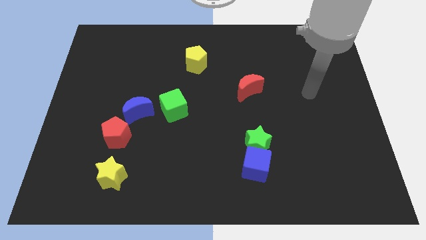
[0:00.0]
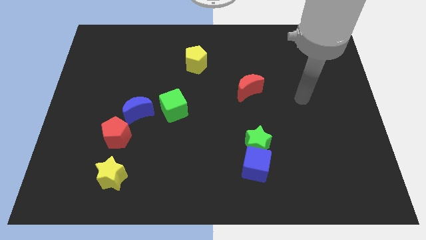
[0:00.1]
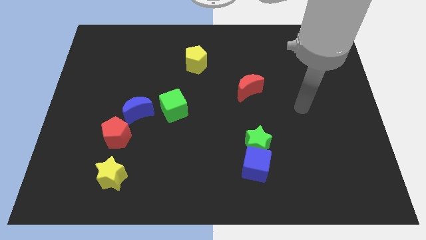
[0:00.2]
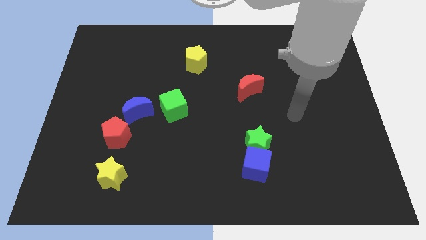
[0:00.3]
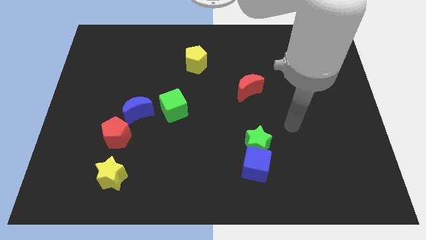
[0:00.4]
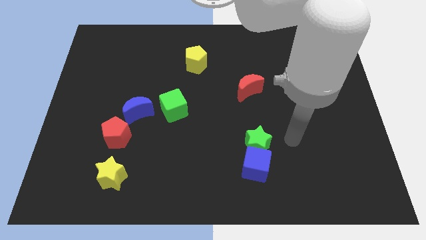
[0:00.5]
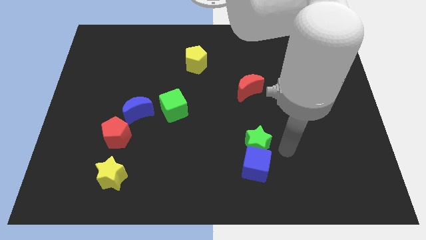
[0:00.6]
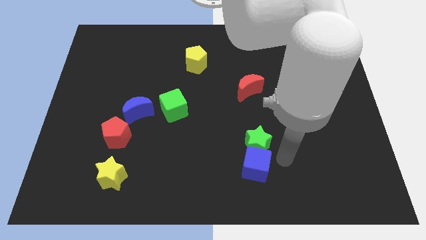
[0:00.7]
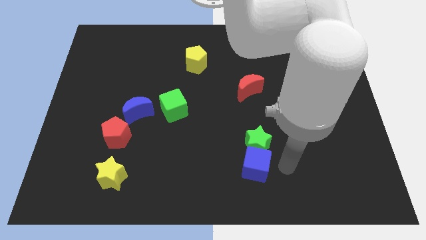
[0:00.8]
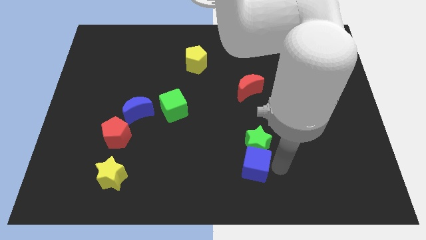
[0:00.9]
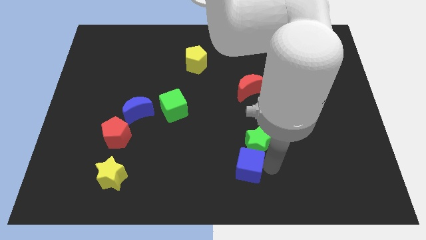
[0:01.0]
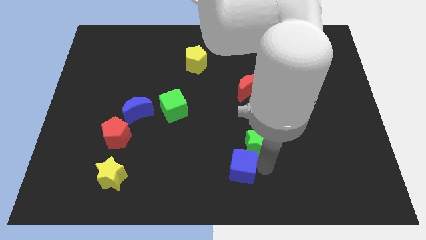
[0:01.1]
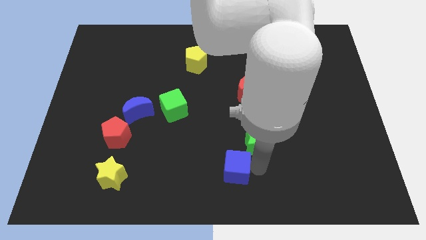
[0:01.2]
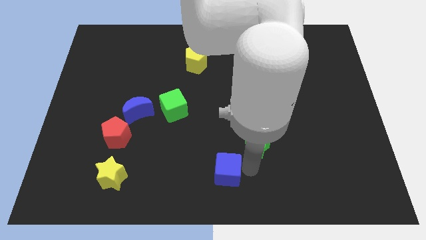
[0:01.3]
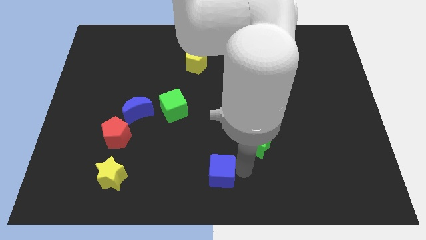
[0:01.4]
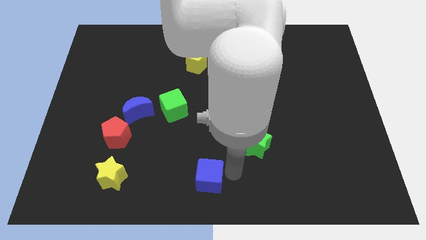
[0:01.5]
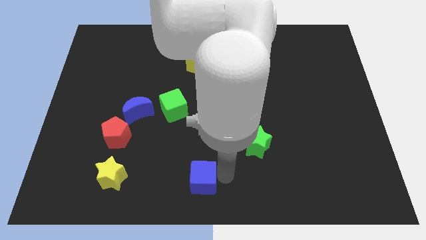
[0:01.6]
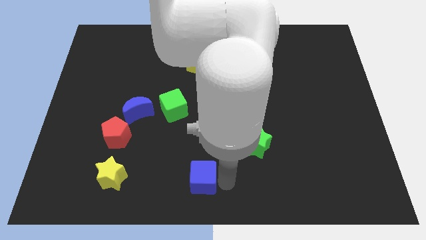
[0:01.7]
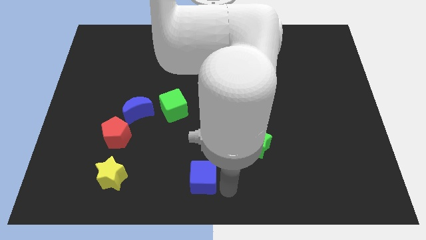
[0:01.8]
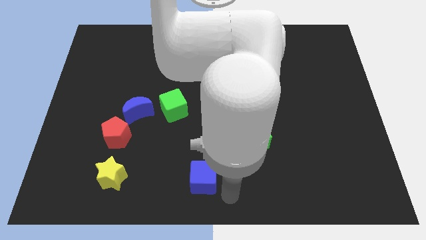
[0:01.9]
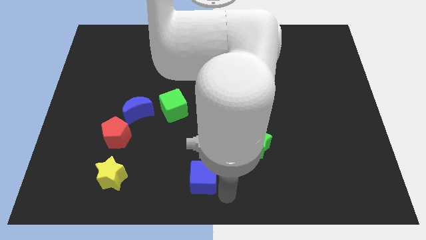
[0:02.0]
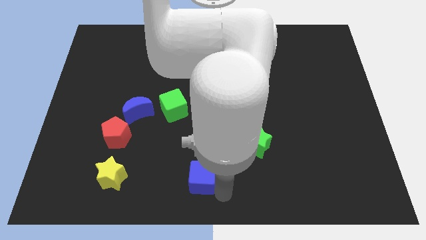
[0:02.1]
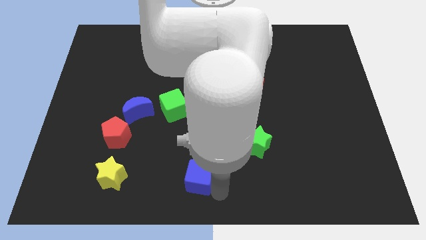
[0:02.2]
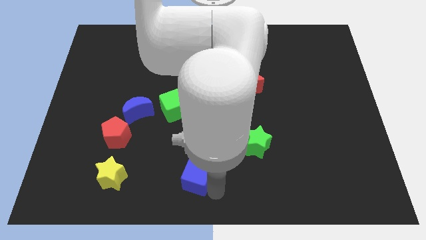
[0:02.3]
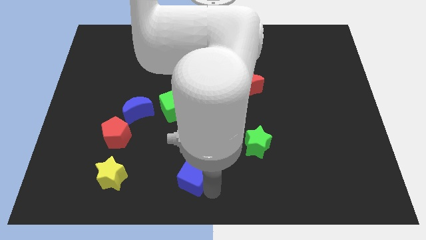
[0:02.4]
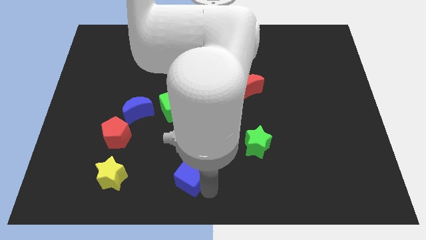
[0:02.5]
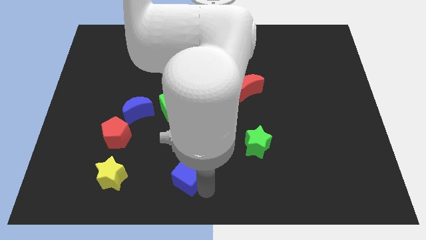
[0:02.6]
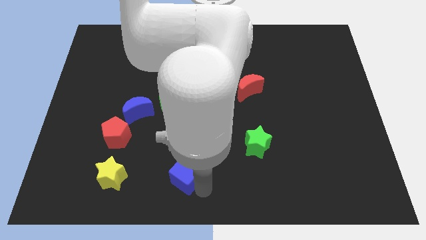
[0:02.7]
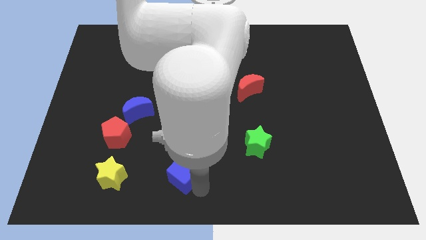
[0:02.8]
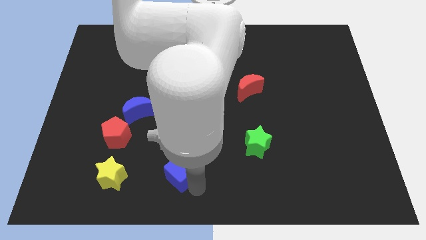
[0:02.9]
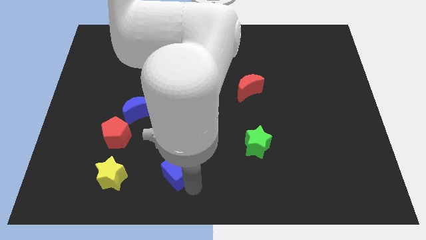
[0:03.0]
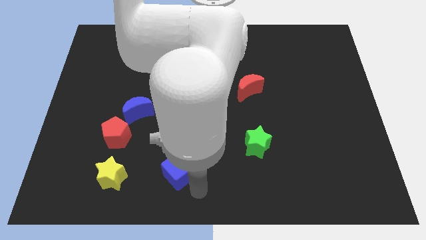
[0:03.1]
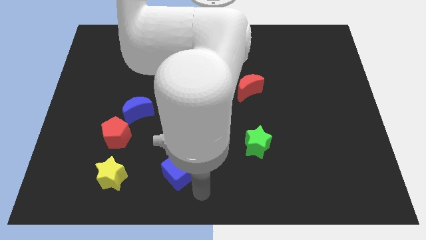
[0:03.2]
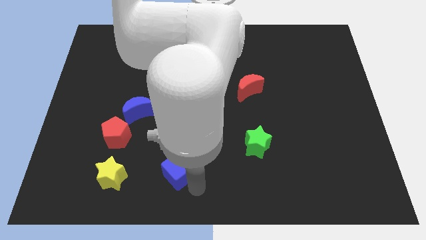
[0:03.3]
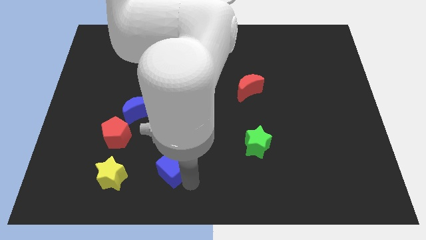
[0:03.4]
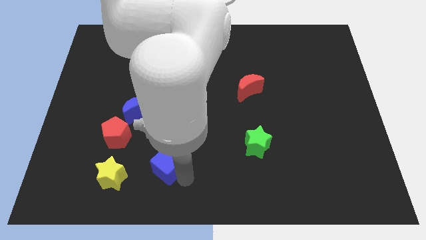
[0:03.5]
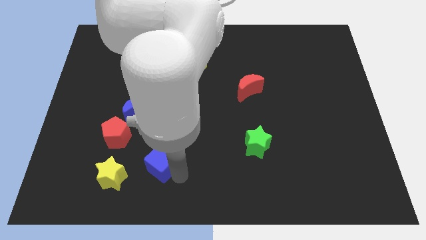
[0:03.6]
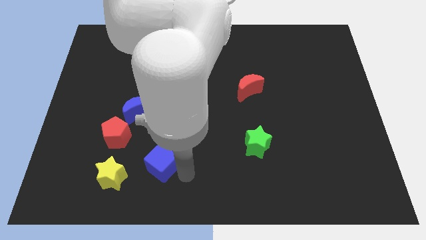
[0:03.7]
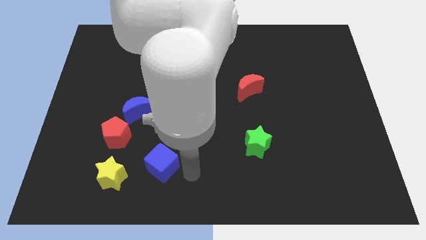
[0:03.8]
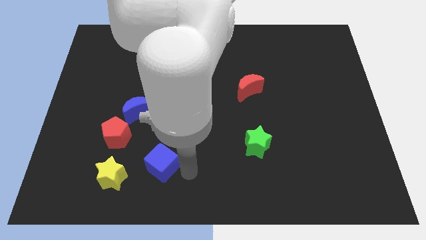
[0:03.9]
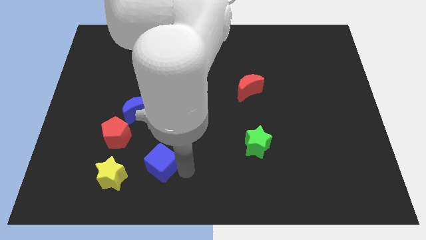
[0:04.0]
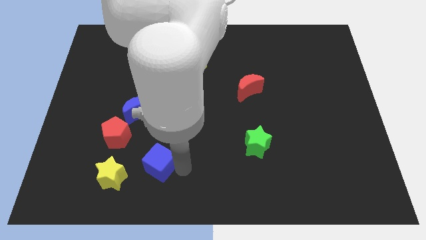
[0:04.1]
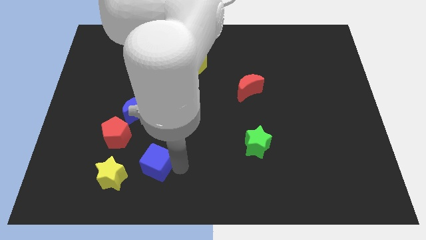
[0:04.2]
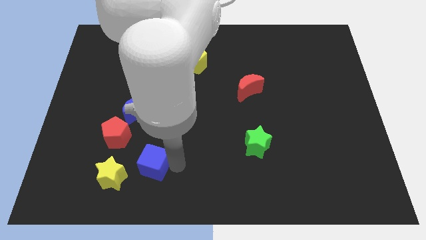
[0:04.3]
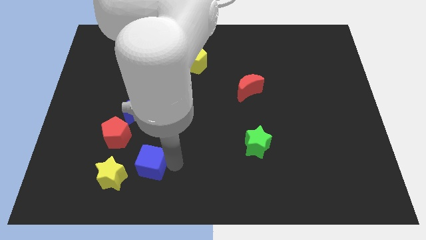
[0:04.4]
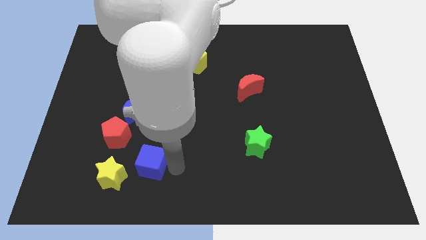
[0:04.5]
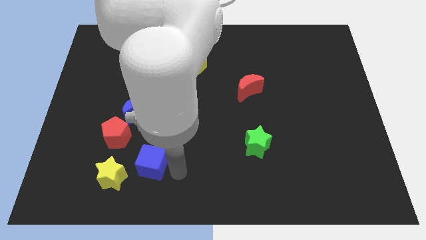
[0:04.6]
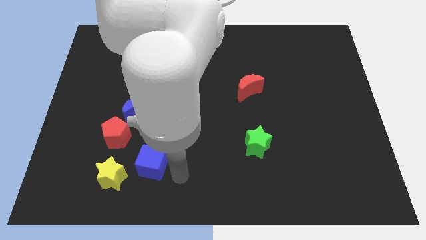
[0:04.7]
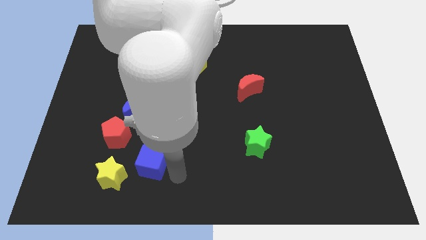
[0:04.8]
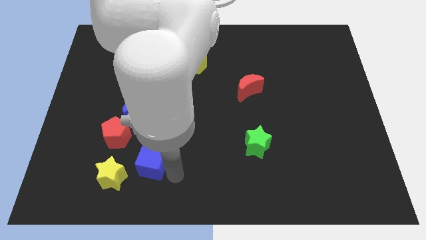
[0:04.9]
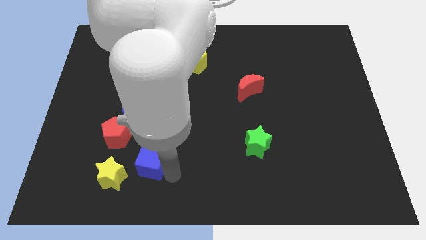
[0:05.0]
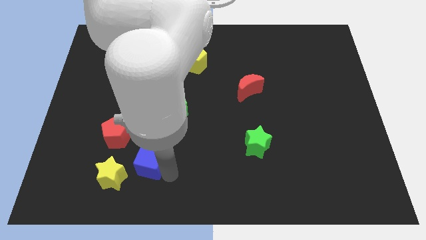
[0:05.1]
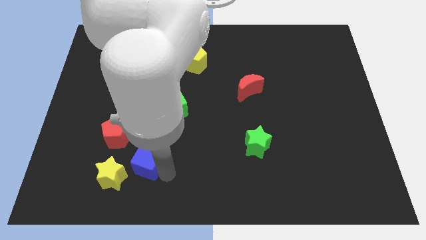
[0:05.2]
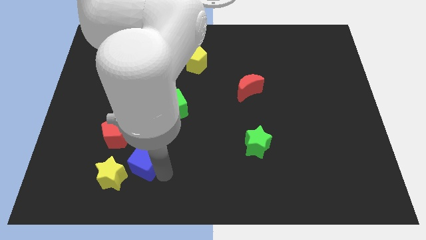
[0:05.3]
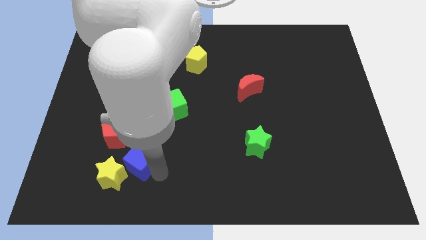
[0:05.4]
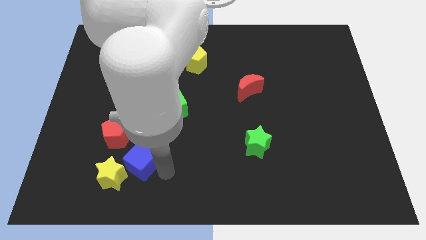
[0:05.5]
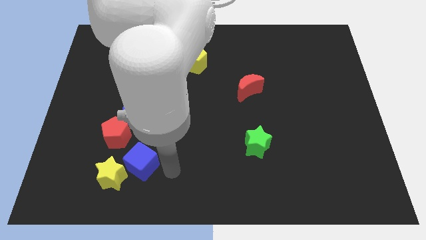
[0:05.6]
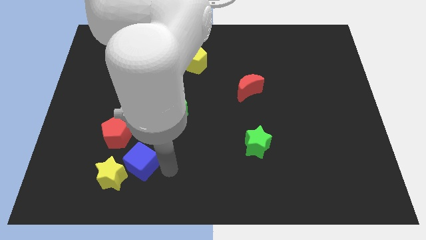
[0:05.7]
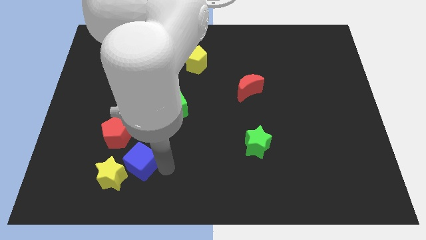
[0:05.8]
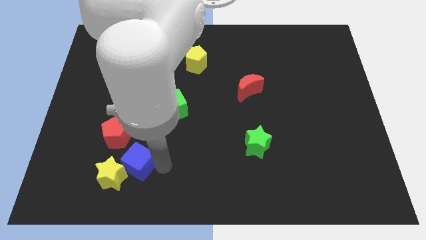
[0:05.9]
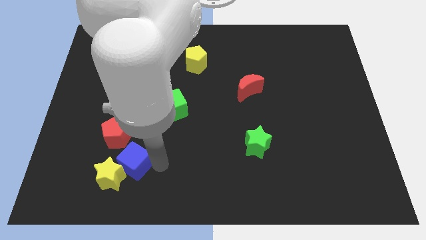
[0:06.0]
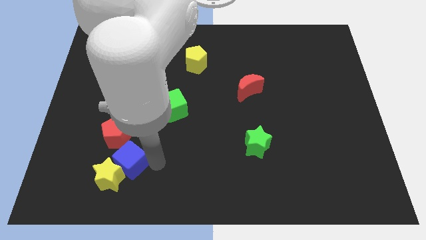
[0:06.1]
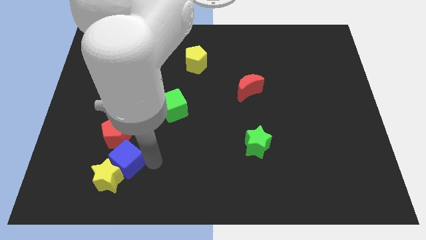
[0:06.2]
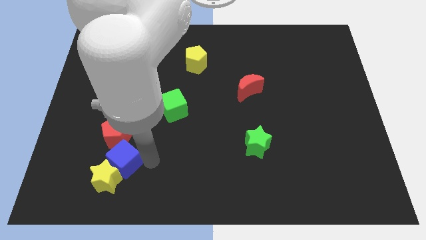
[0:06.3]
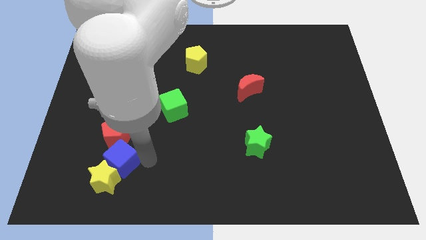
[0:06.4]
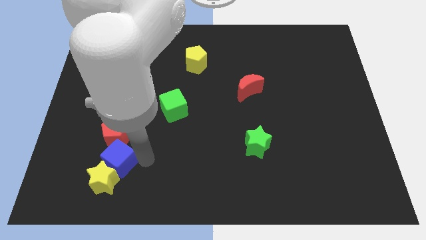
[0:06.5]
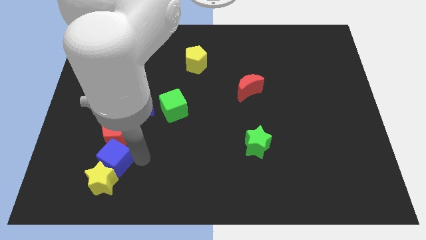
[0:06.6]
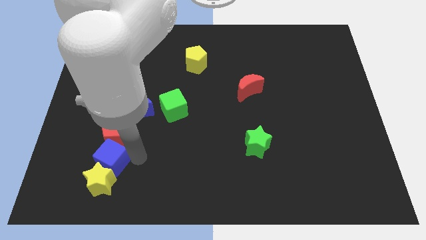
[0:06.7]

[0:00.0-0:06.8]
move the blue cube diagonally up and to the left of the yellow star

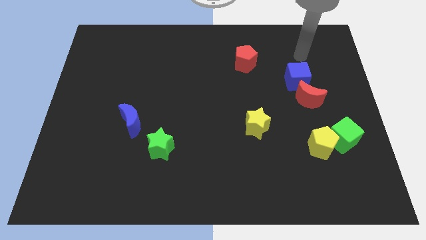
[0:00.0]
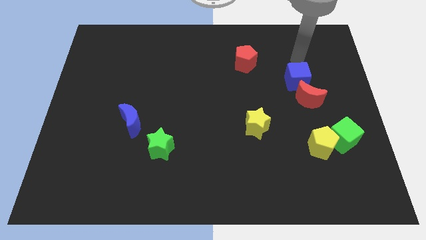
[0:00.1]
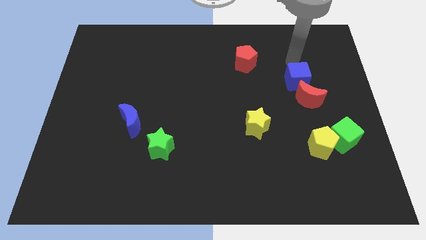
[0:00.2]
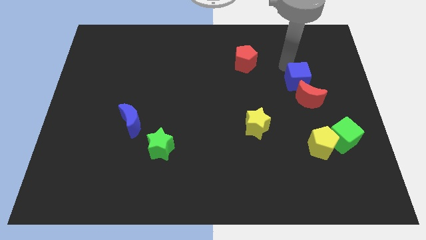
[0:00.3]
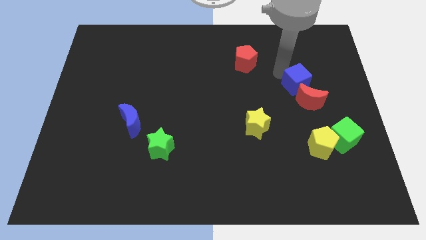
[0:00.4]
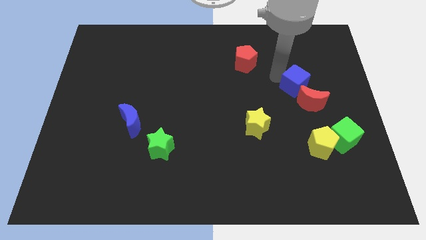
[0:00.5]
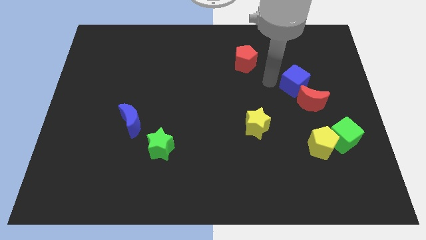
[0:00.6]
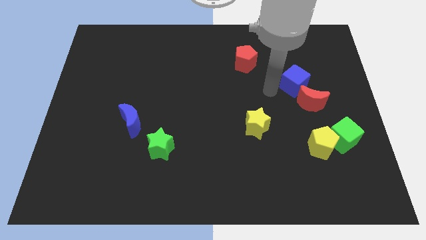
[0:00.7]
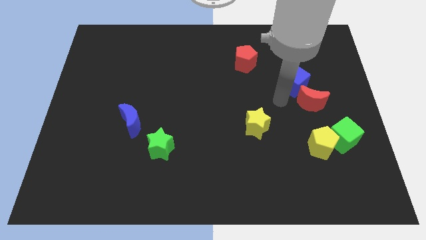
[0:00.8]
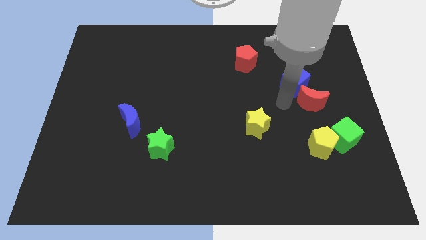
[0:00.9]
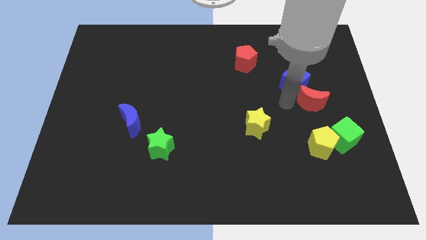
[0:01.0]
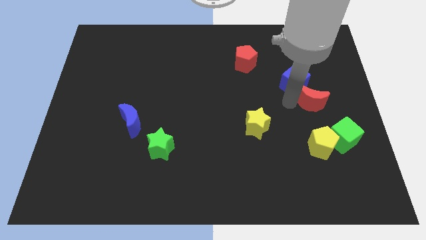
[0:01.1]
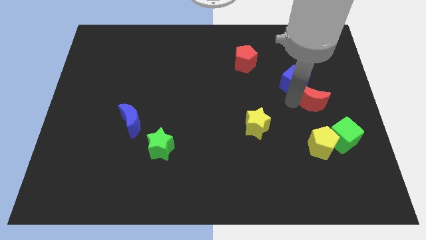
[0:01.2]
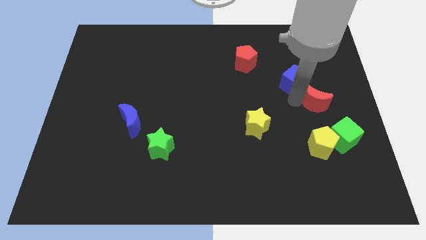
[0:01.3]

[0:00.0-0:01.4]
move the red moon to the top of the green cube
